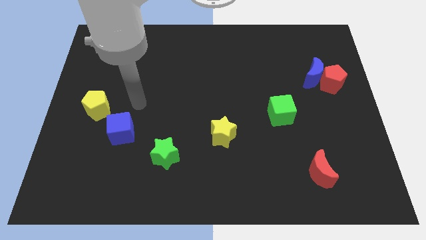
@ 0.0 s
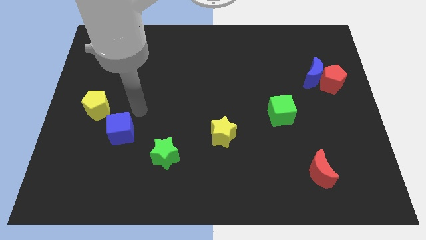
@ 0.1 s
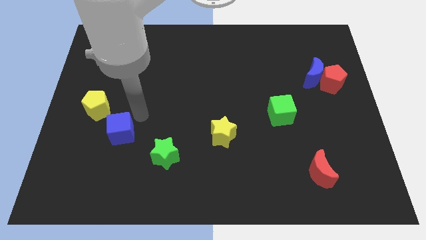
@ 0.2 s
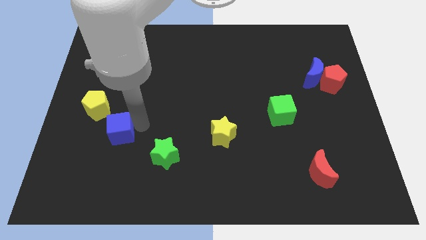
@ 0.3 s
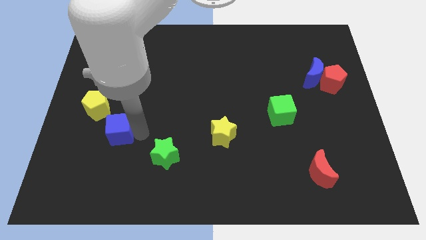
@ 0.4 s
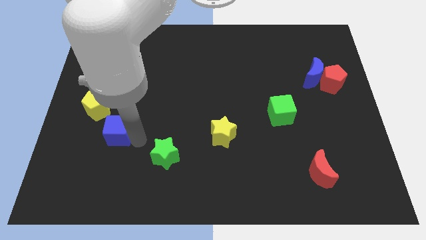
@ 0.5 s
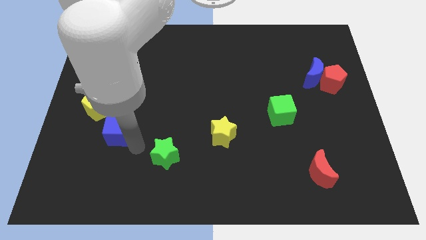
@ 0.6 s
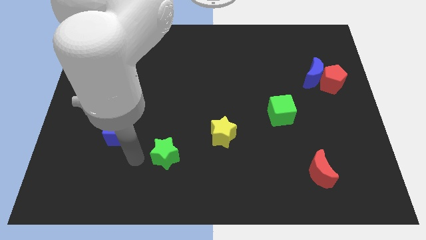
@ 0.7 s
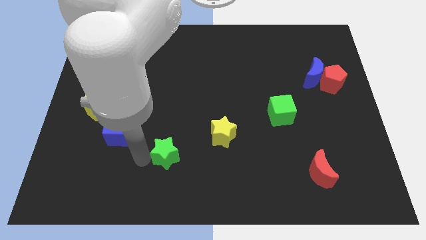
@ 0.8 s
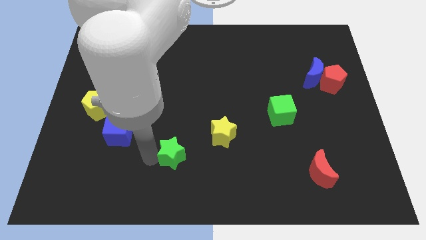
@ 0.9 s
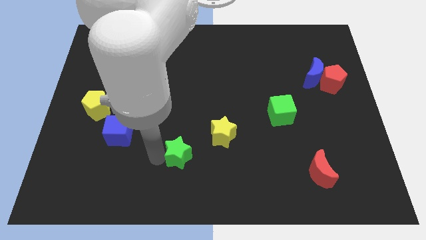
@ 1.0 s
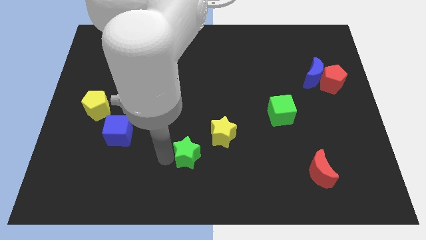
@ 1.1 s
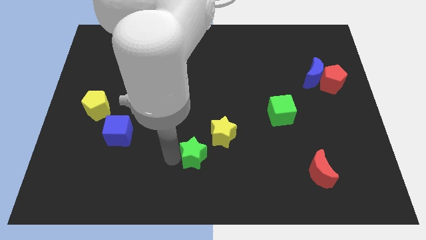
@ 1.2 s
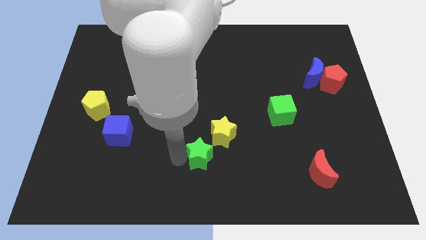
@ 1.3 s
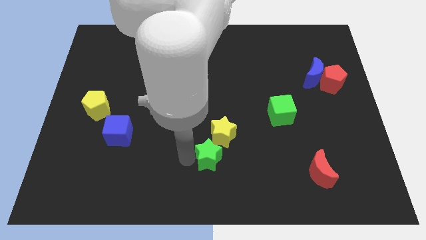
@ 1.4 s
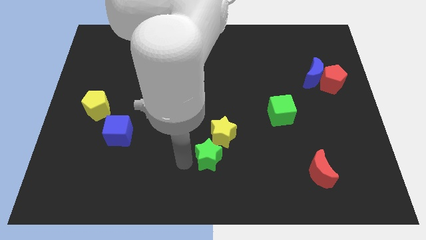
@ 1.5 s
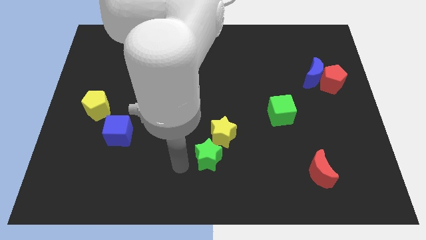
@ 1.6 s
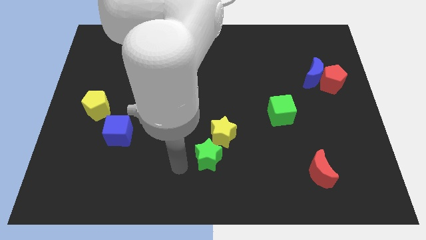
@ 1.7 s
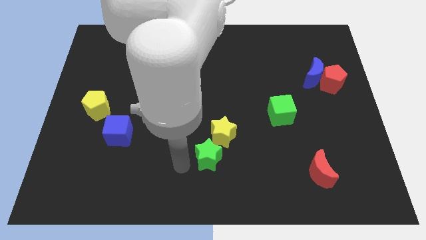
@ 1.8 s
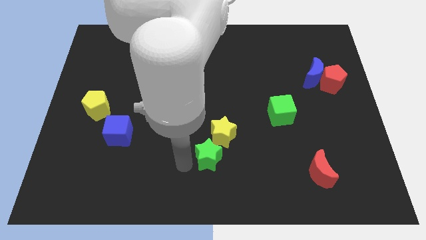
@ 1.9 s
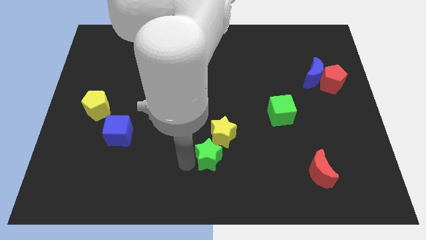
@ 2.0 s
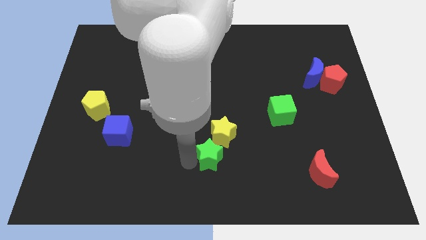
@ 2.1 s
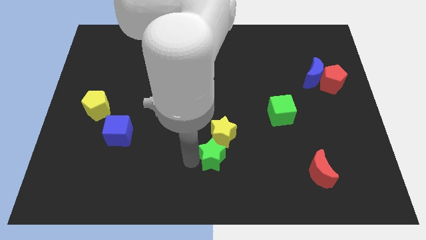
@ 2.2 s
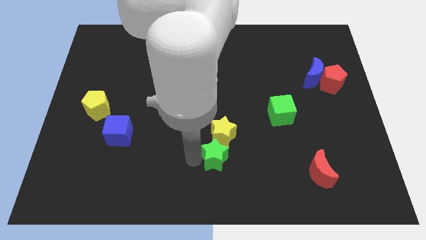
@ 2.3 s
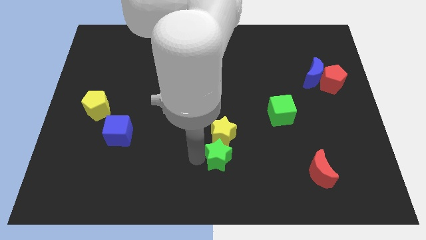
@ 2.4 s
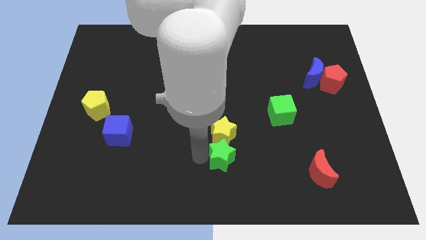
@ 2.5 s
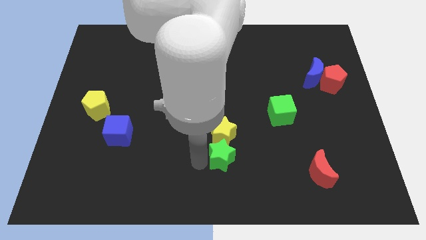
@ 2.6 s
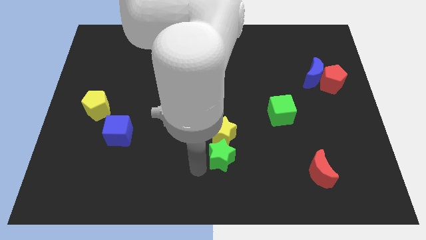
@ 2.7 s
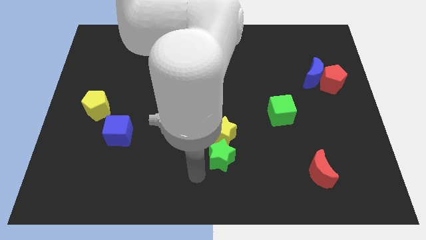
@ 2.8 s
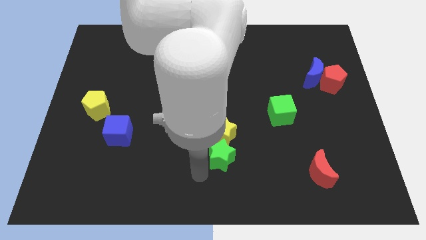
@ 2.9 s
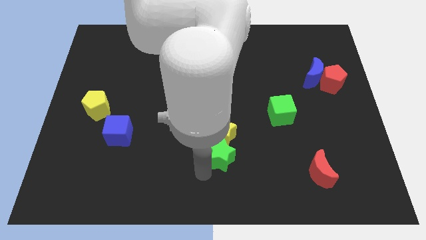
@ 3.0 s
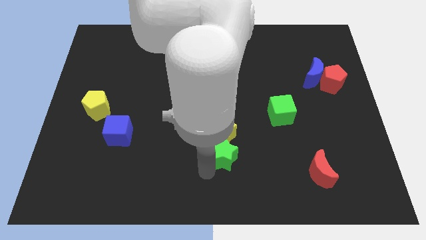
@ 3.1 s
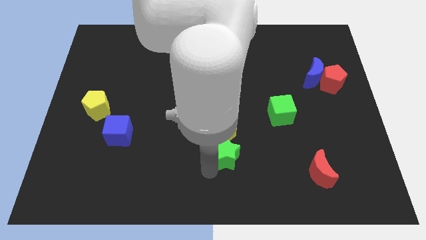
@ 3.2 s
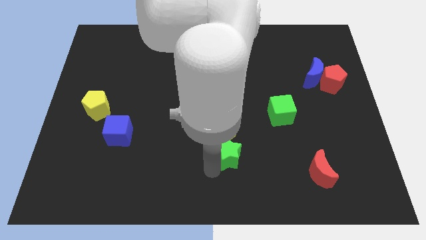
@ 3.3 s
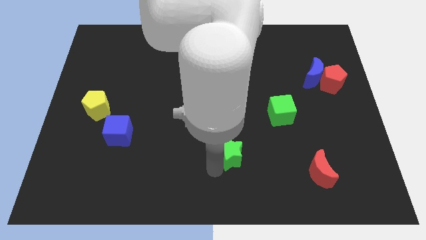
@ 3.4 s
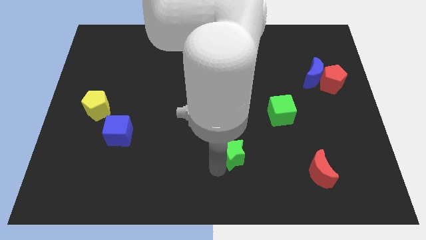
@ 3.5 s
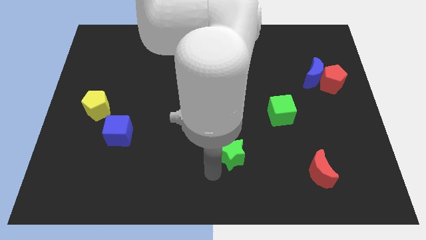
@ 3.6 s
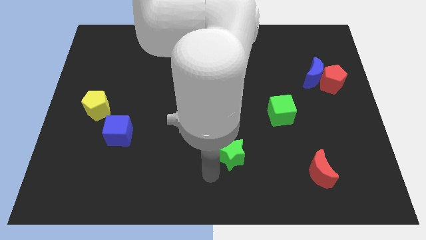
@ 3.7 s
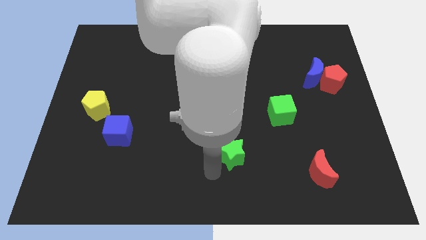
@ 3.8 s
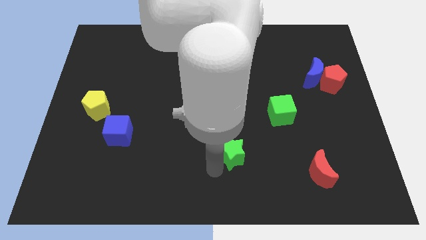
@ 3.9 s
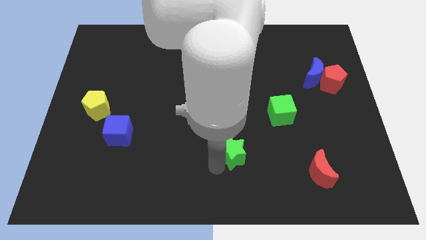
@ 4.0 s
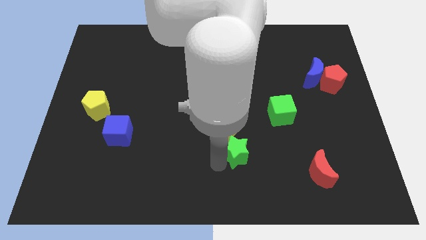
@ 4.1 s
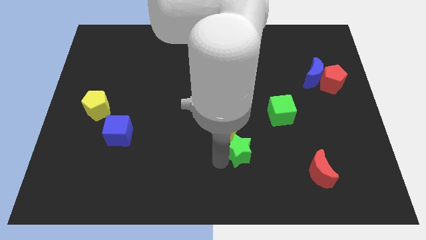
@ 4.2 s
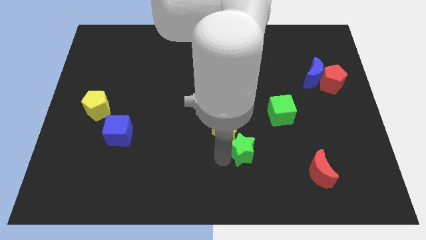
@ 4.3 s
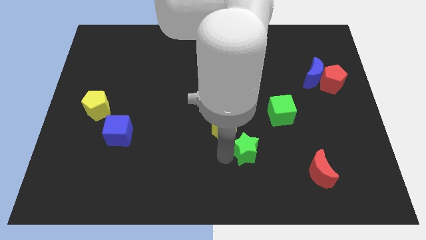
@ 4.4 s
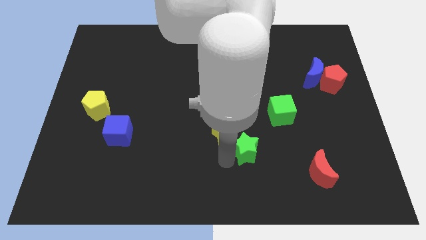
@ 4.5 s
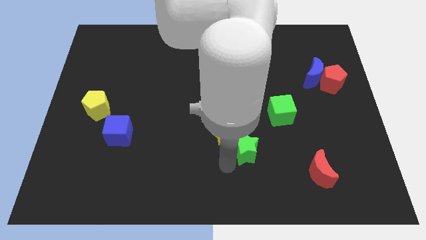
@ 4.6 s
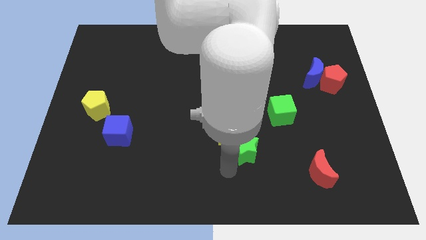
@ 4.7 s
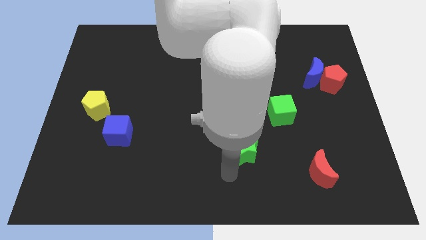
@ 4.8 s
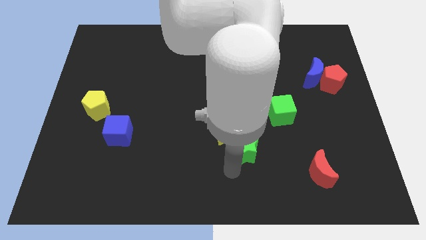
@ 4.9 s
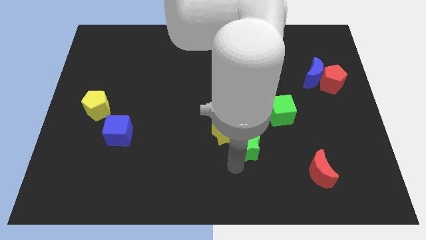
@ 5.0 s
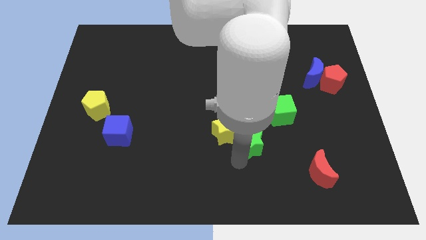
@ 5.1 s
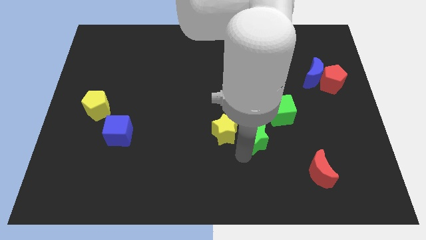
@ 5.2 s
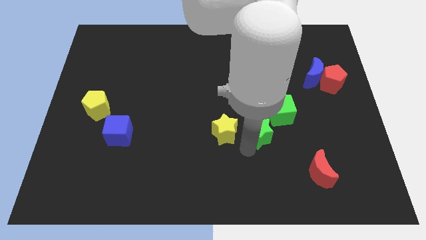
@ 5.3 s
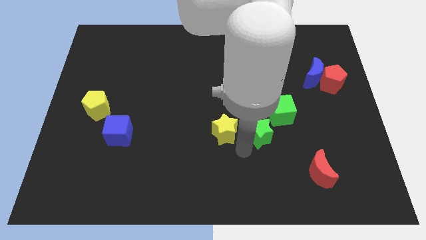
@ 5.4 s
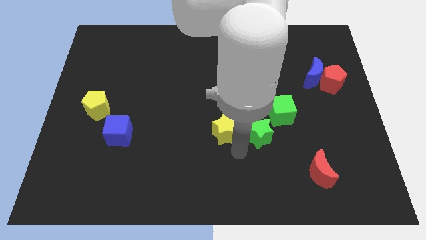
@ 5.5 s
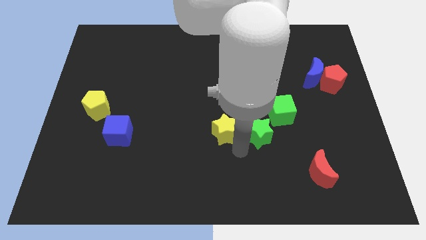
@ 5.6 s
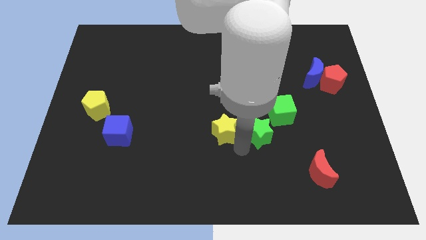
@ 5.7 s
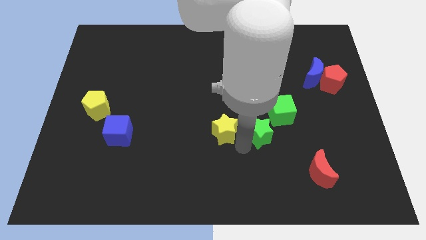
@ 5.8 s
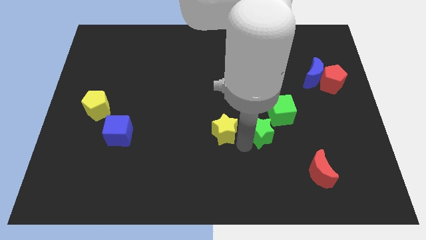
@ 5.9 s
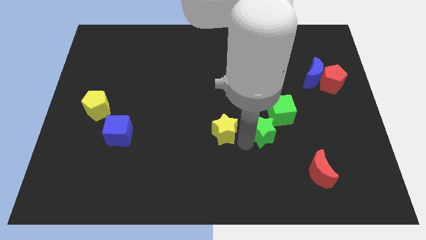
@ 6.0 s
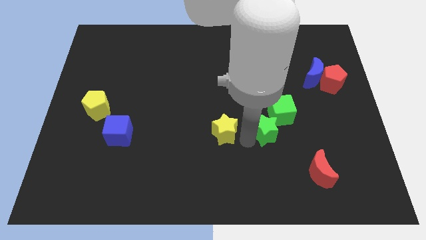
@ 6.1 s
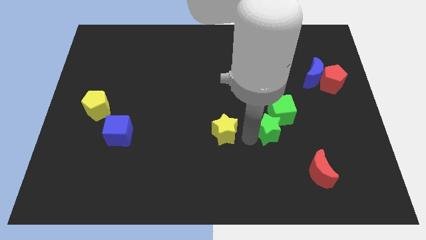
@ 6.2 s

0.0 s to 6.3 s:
move the green star close to the green cube

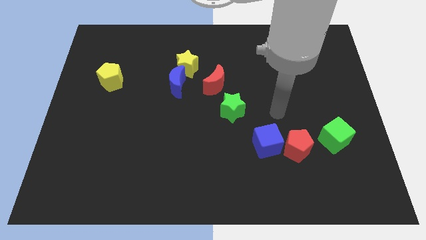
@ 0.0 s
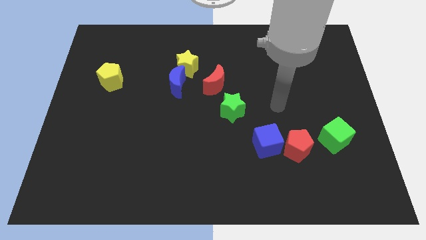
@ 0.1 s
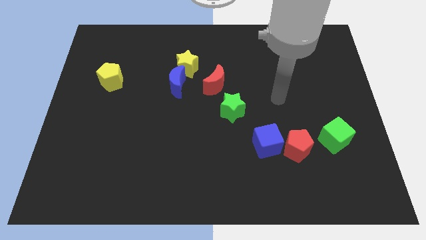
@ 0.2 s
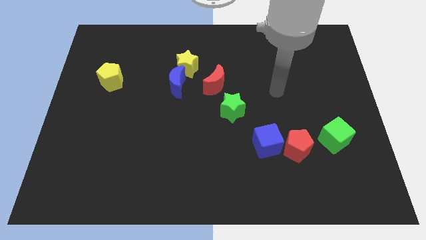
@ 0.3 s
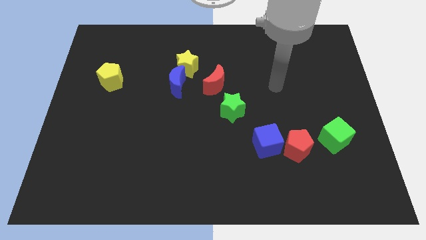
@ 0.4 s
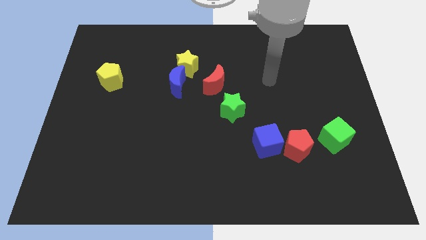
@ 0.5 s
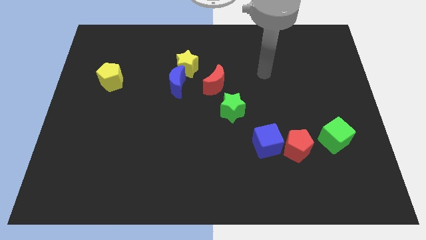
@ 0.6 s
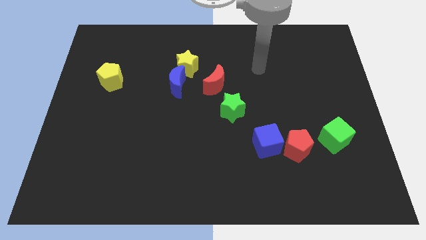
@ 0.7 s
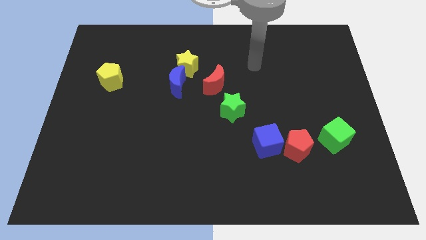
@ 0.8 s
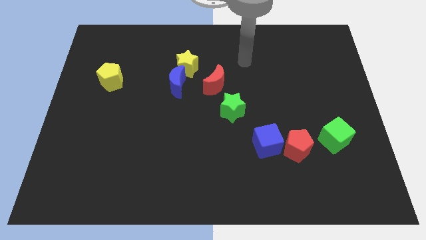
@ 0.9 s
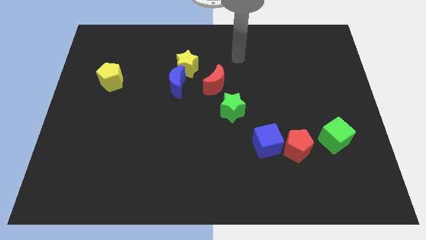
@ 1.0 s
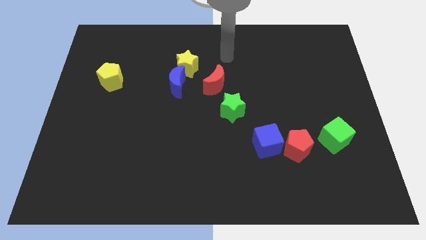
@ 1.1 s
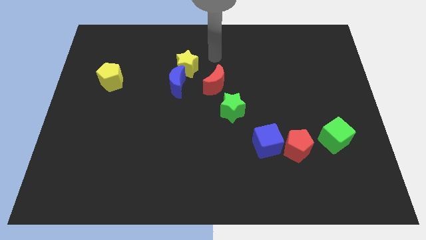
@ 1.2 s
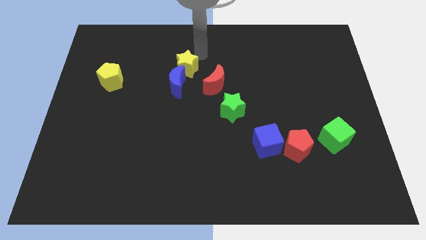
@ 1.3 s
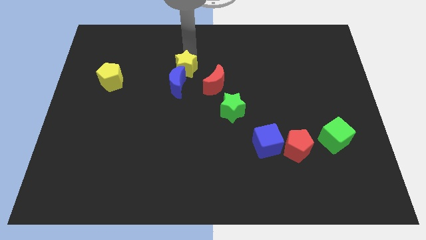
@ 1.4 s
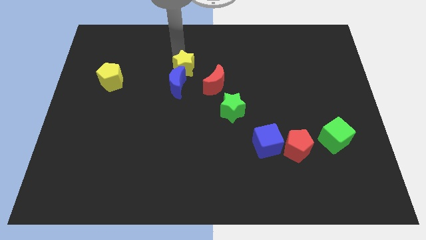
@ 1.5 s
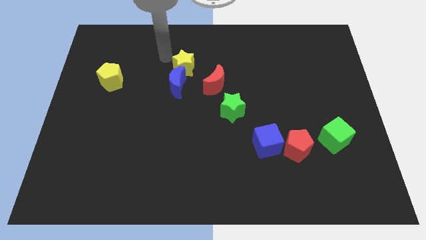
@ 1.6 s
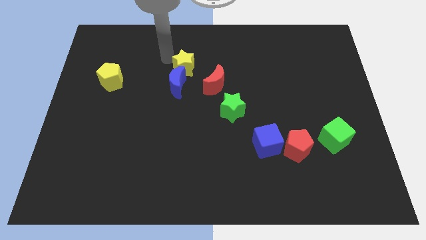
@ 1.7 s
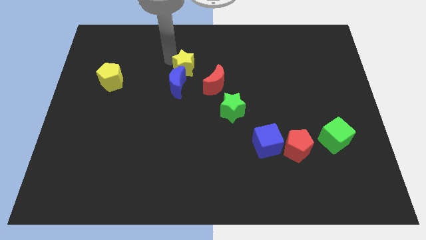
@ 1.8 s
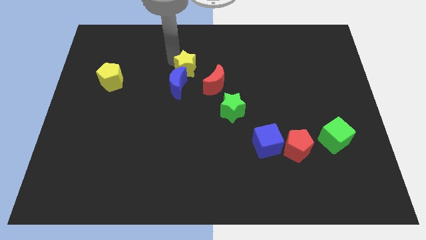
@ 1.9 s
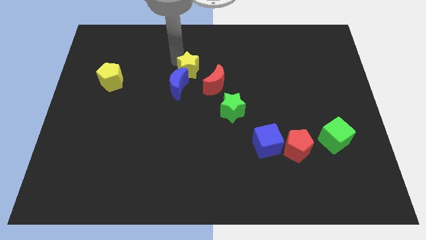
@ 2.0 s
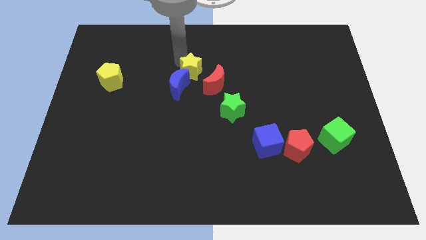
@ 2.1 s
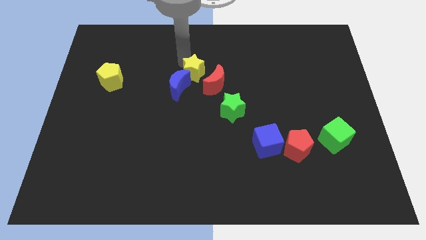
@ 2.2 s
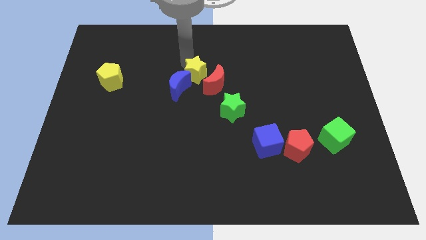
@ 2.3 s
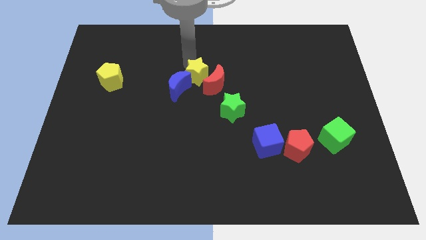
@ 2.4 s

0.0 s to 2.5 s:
slide the yellow star towards the red moon
